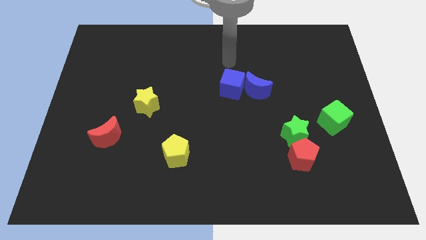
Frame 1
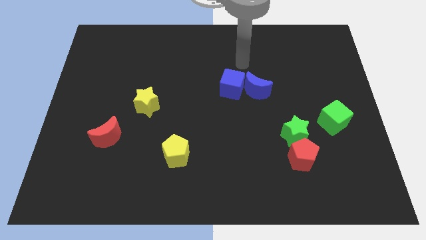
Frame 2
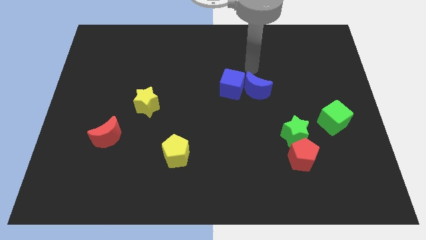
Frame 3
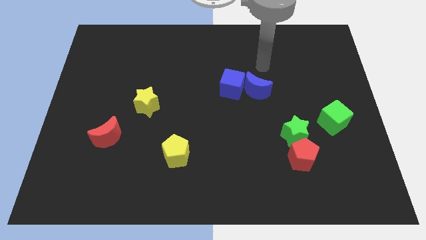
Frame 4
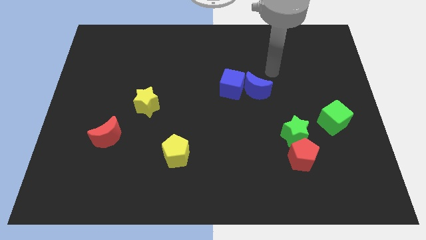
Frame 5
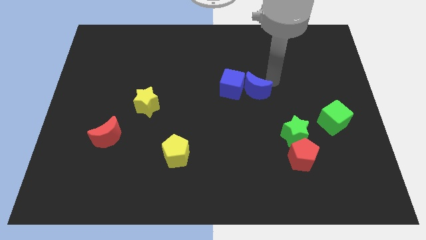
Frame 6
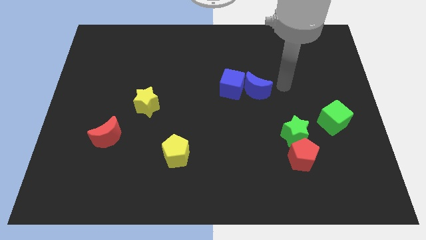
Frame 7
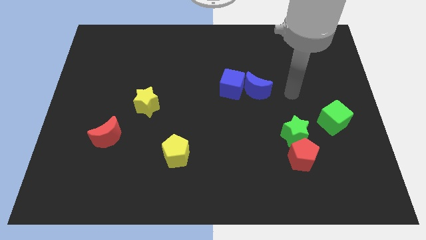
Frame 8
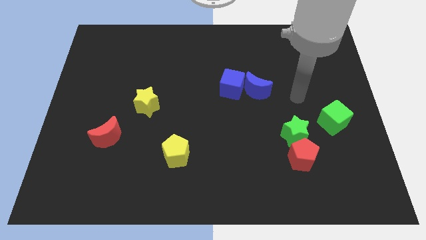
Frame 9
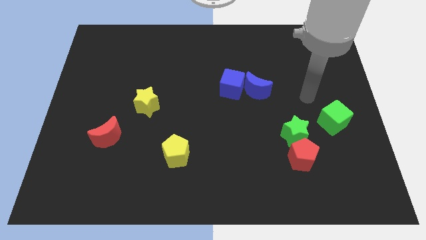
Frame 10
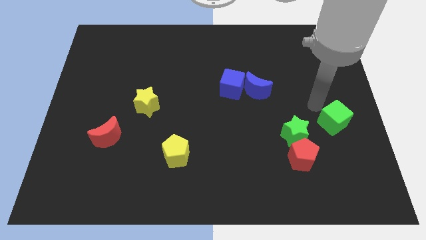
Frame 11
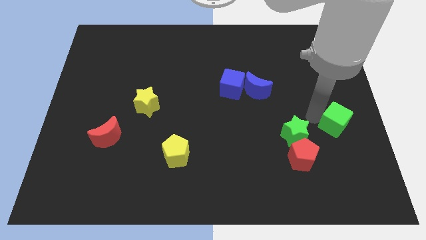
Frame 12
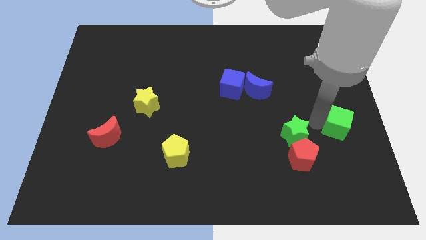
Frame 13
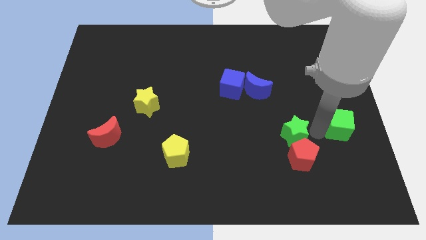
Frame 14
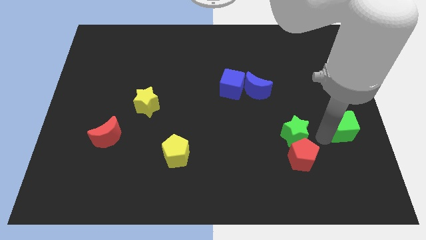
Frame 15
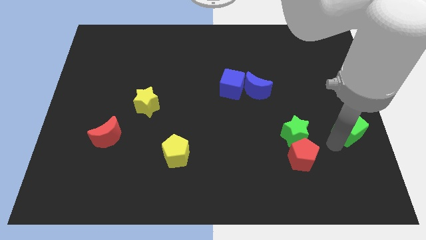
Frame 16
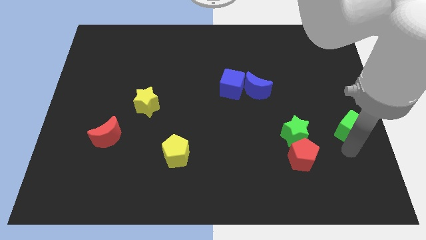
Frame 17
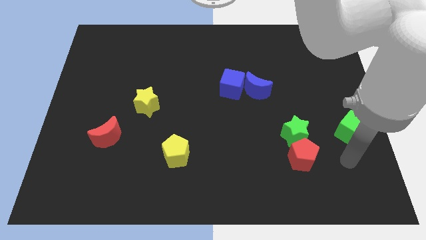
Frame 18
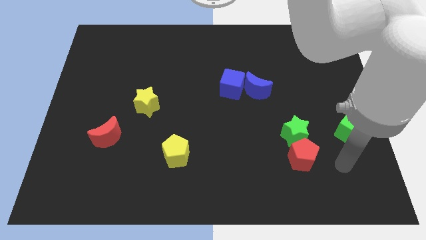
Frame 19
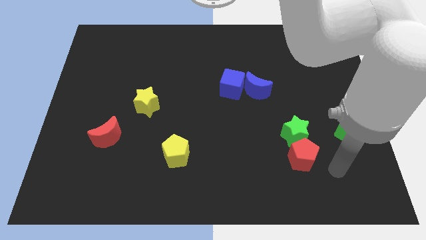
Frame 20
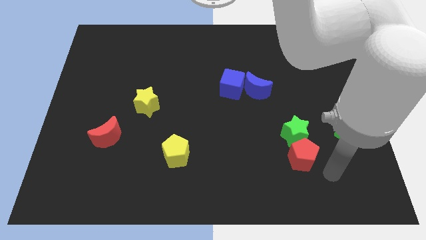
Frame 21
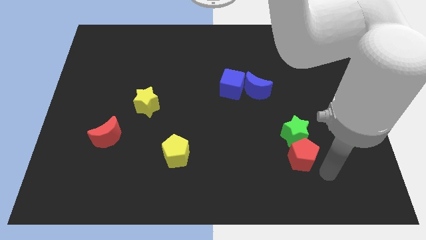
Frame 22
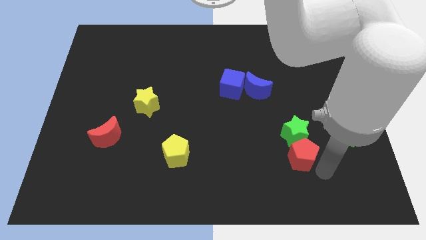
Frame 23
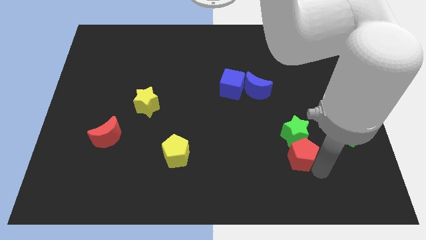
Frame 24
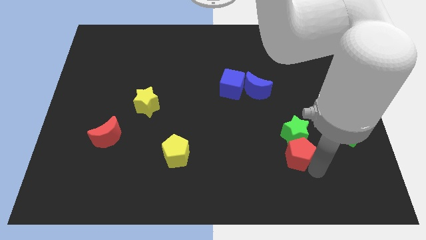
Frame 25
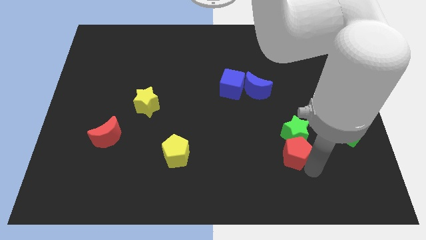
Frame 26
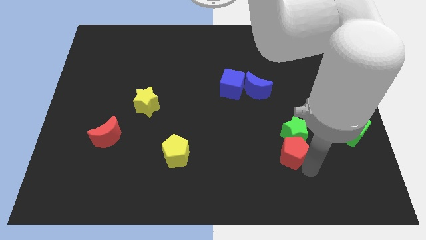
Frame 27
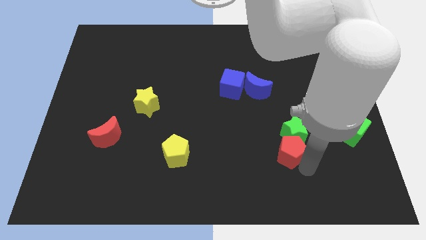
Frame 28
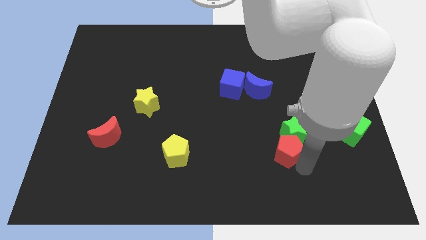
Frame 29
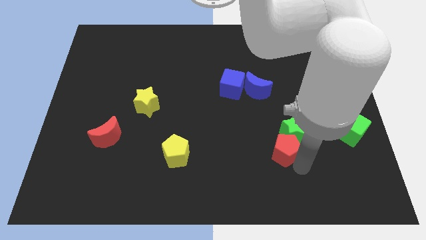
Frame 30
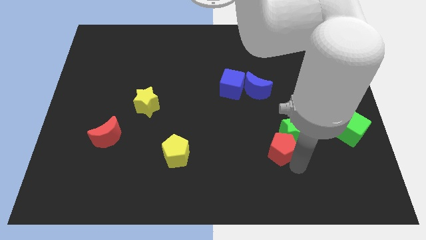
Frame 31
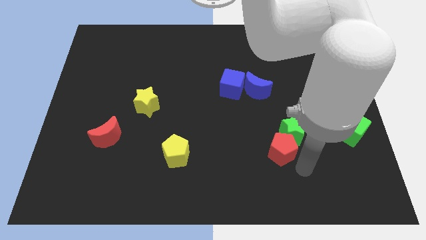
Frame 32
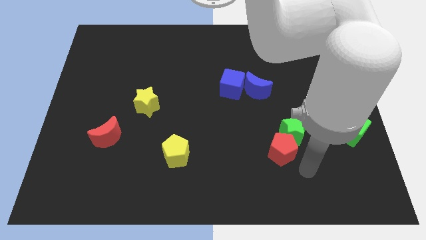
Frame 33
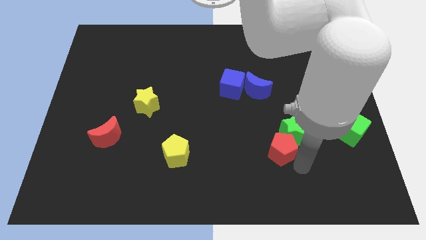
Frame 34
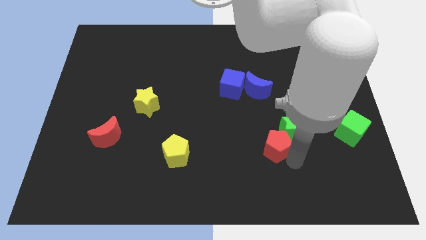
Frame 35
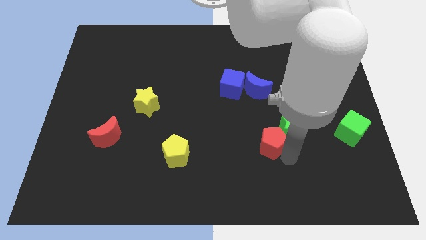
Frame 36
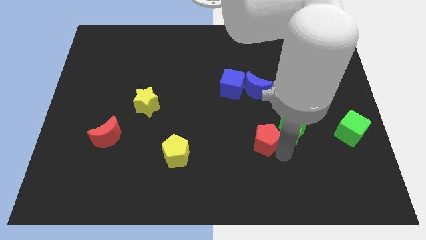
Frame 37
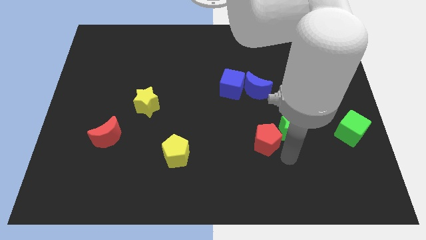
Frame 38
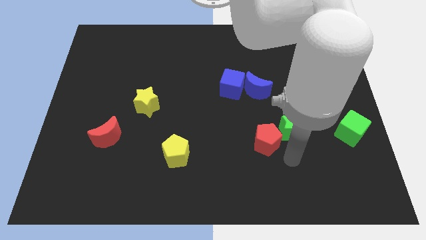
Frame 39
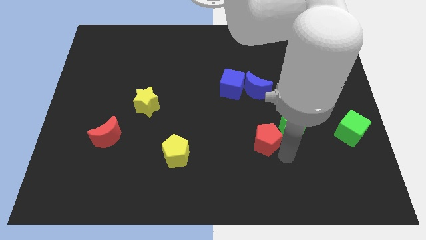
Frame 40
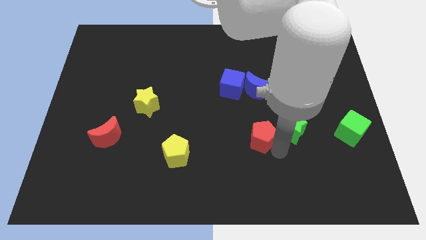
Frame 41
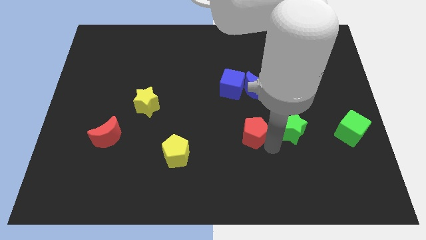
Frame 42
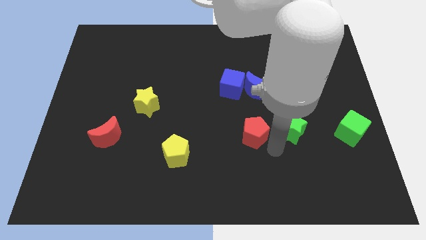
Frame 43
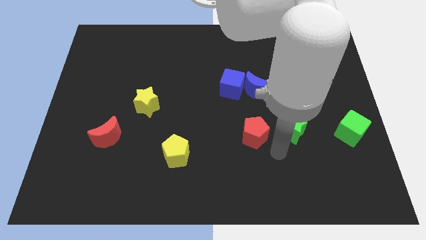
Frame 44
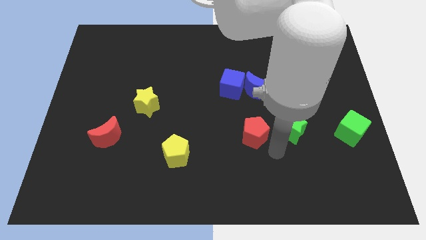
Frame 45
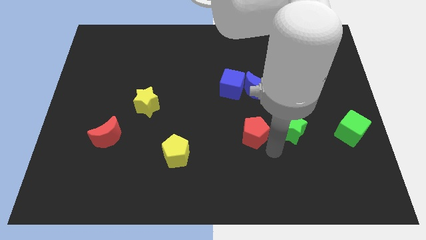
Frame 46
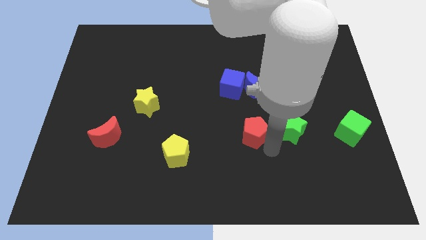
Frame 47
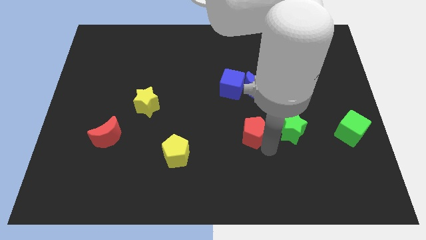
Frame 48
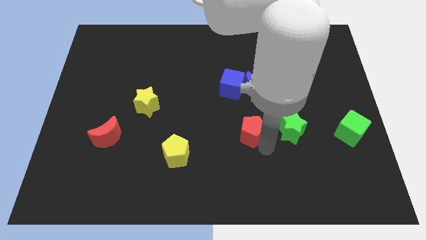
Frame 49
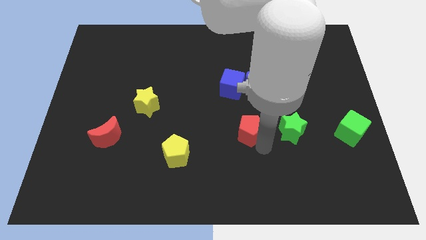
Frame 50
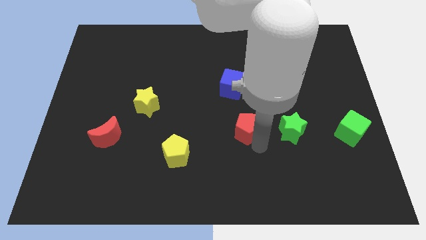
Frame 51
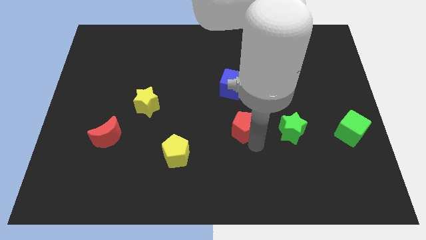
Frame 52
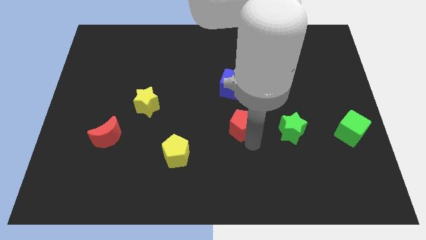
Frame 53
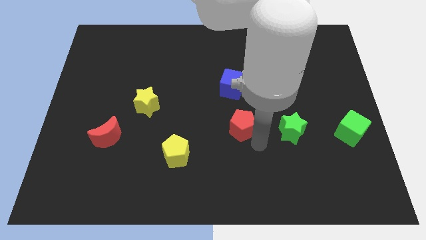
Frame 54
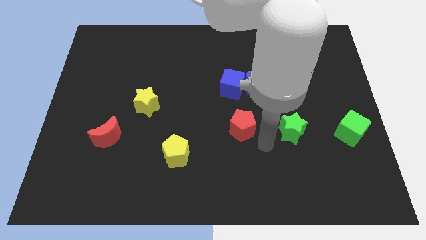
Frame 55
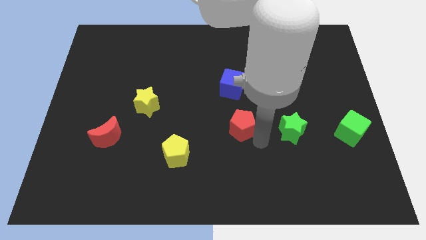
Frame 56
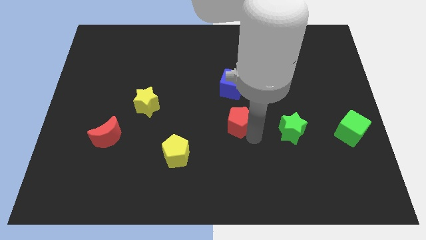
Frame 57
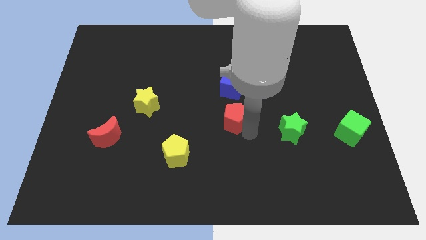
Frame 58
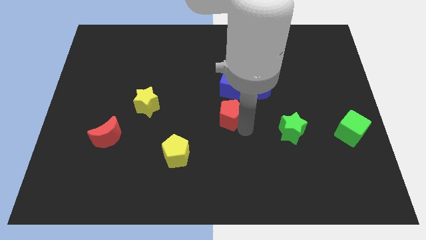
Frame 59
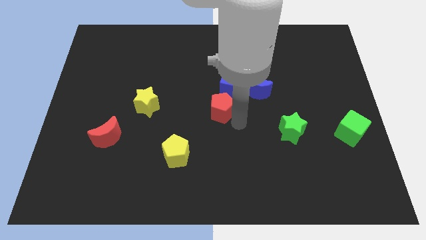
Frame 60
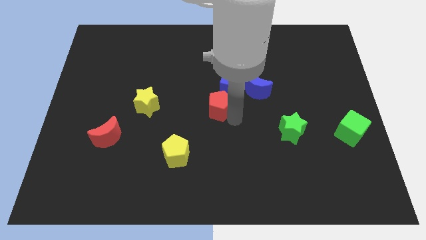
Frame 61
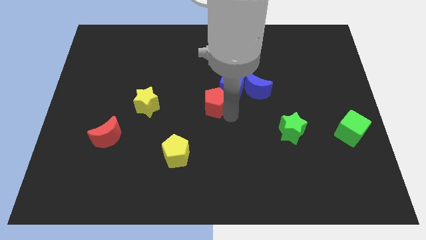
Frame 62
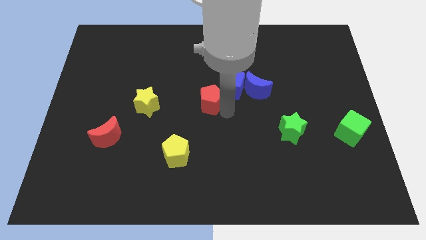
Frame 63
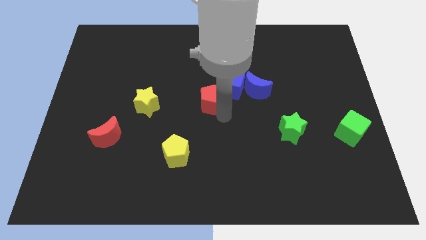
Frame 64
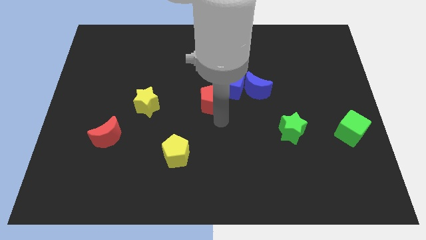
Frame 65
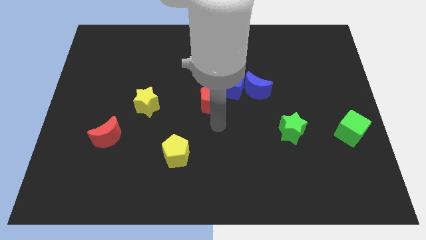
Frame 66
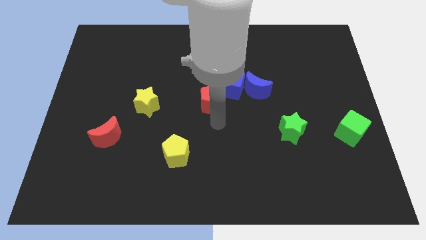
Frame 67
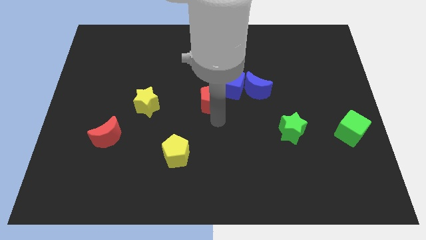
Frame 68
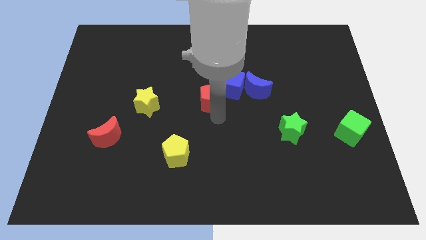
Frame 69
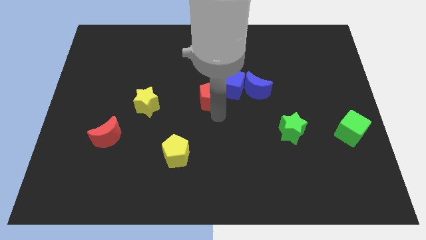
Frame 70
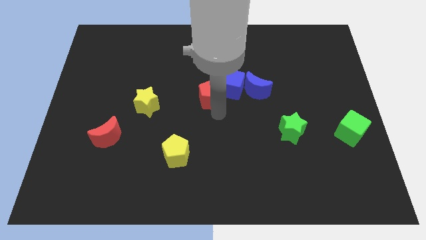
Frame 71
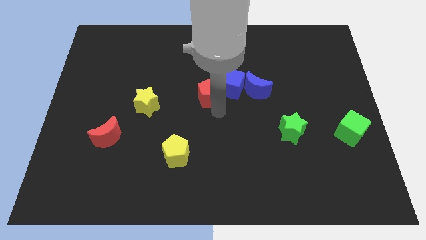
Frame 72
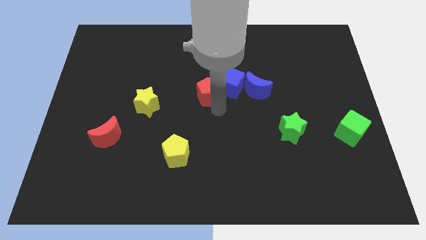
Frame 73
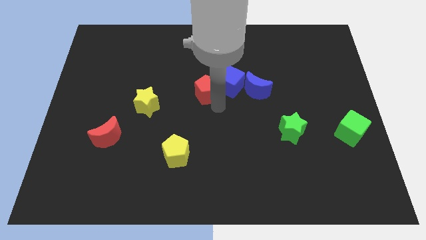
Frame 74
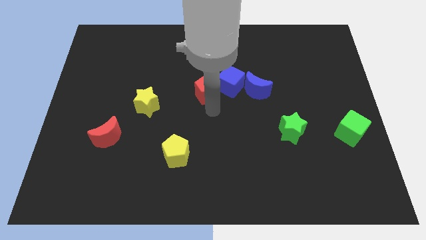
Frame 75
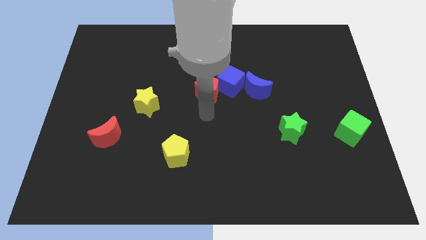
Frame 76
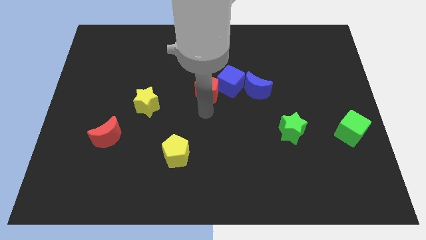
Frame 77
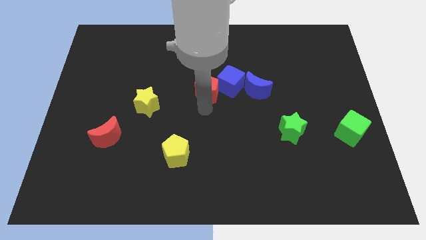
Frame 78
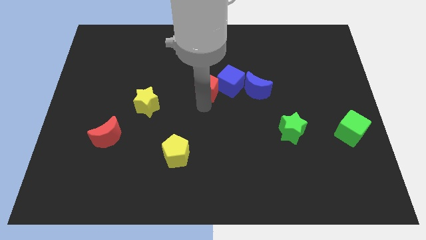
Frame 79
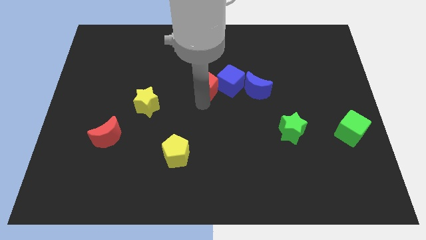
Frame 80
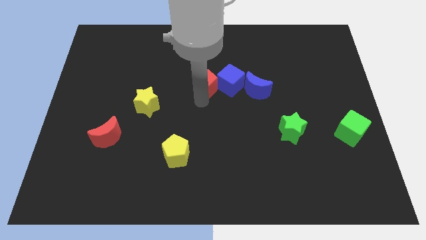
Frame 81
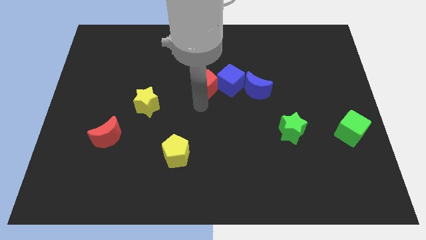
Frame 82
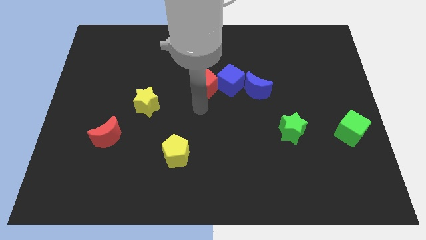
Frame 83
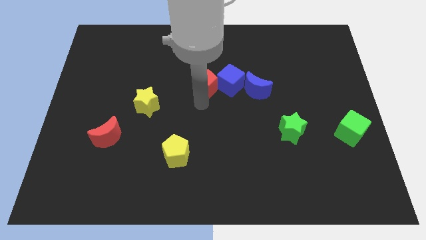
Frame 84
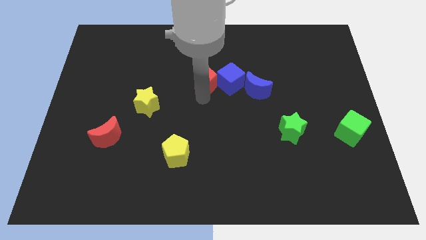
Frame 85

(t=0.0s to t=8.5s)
move the red pentagon diagonally up and to the left of the blue cube
